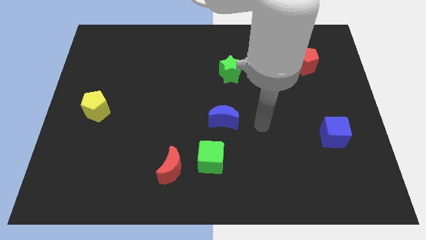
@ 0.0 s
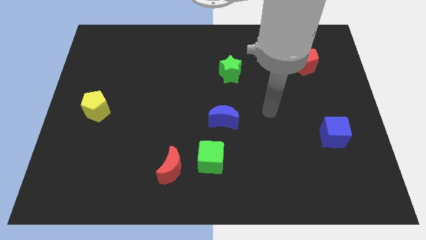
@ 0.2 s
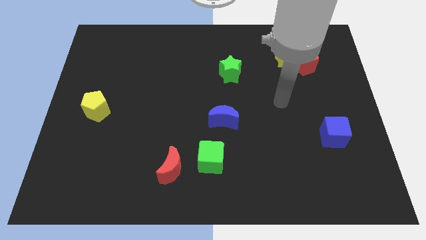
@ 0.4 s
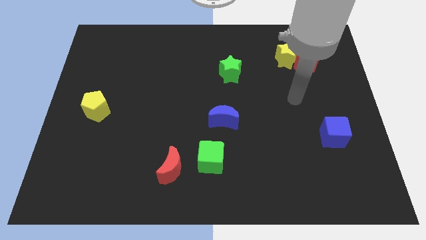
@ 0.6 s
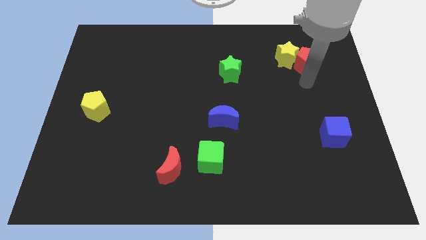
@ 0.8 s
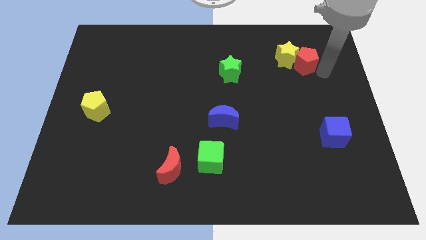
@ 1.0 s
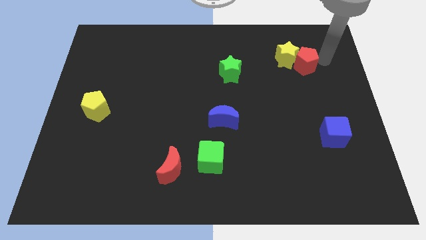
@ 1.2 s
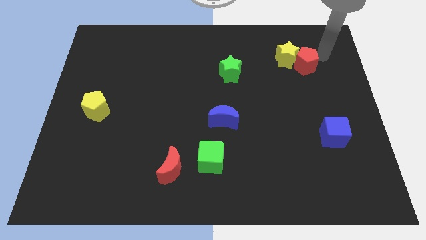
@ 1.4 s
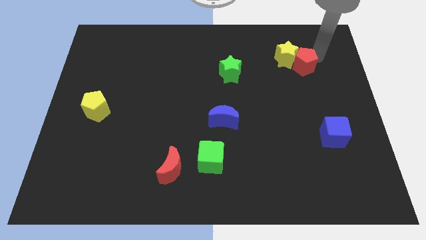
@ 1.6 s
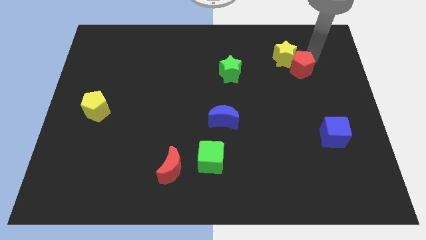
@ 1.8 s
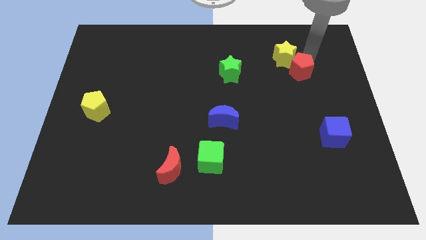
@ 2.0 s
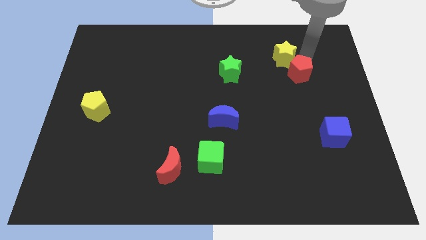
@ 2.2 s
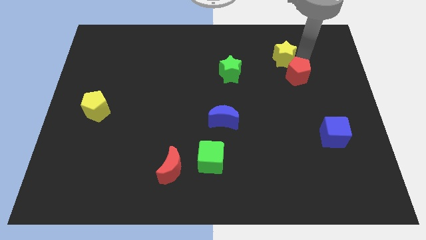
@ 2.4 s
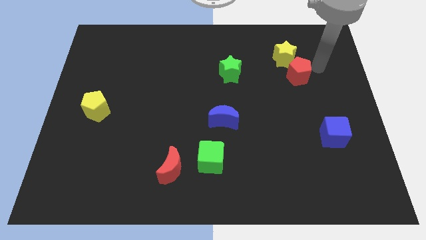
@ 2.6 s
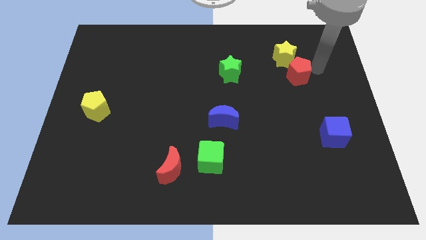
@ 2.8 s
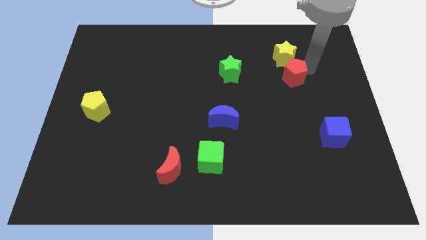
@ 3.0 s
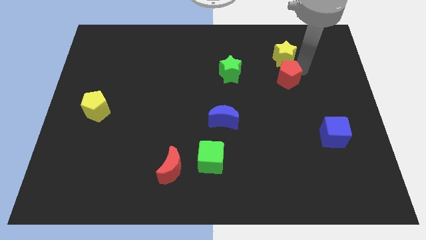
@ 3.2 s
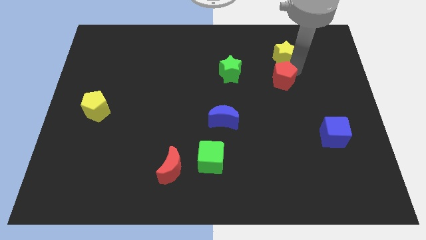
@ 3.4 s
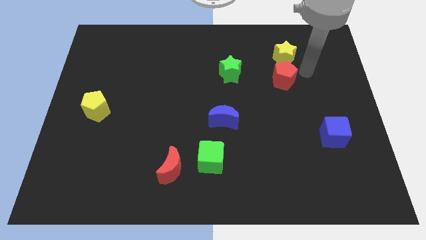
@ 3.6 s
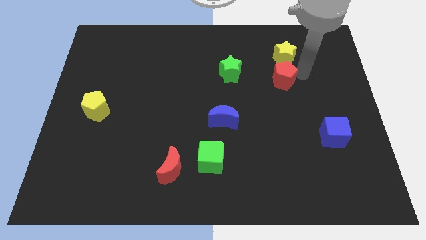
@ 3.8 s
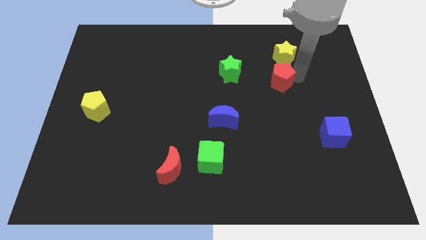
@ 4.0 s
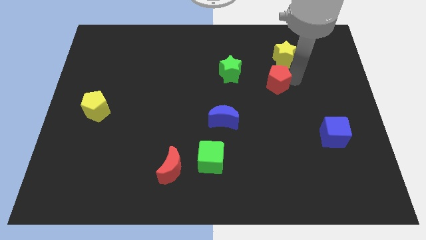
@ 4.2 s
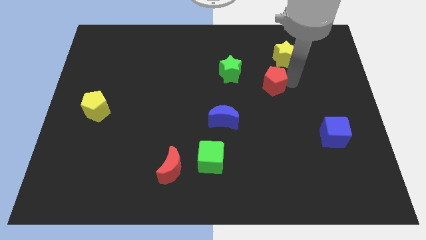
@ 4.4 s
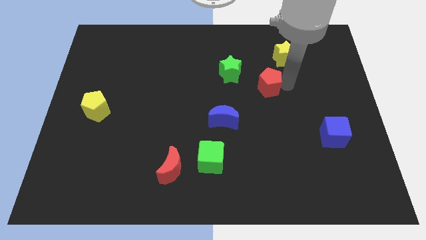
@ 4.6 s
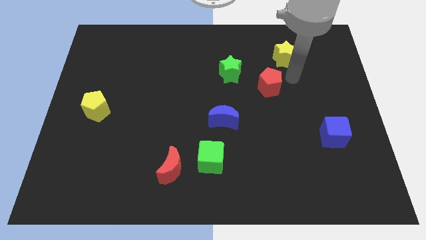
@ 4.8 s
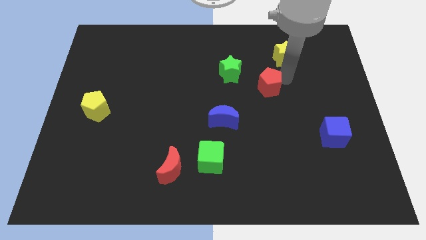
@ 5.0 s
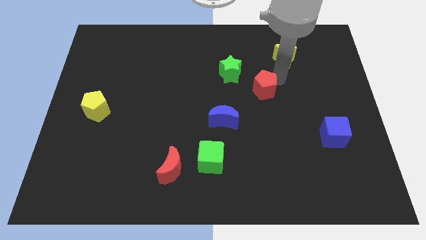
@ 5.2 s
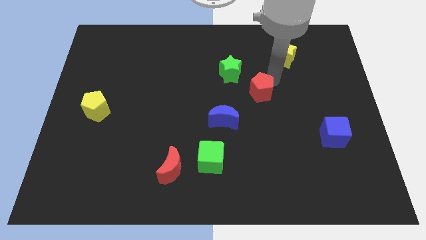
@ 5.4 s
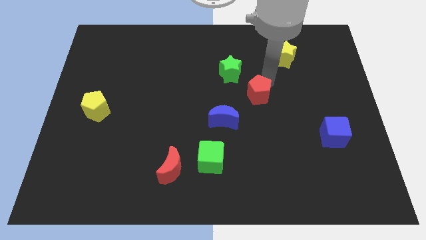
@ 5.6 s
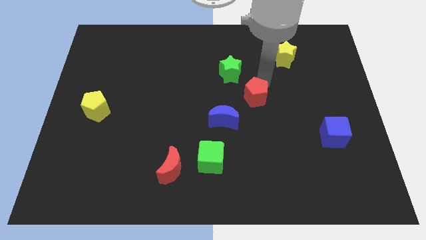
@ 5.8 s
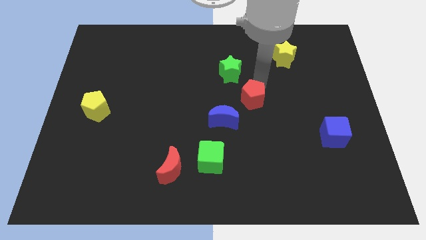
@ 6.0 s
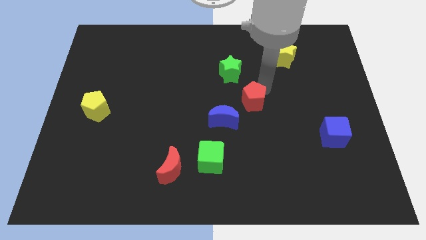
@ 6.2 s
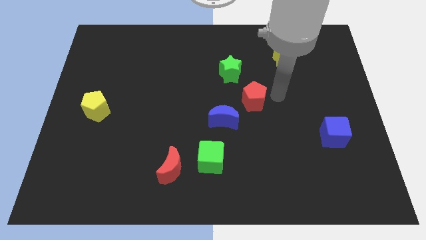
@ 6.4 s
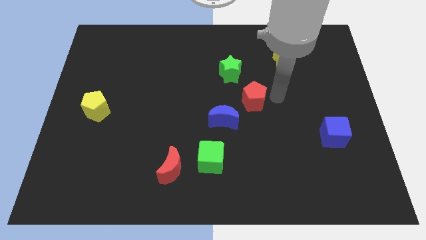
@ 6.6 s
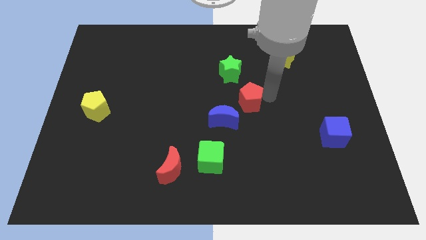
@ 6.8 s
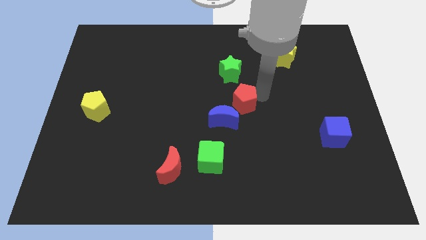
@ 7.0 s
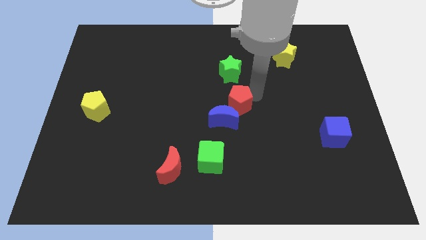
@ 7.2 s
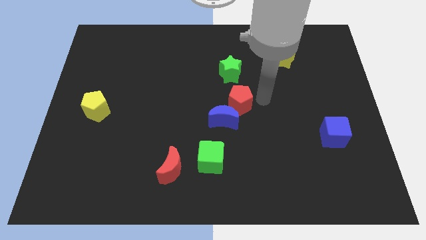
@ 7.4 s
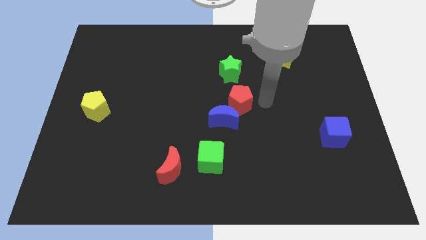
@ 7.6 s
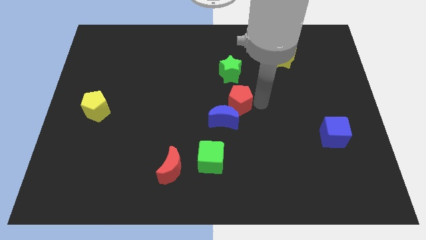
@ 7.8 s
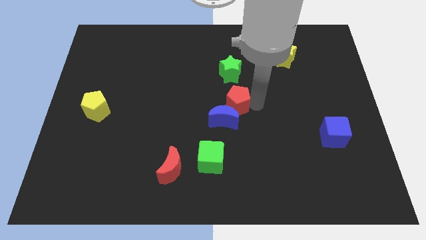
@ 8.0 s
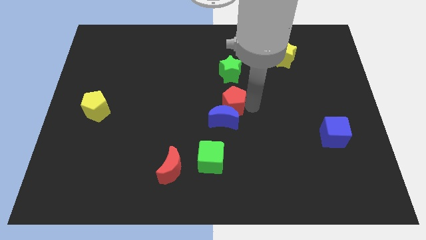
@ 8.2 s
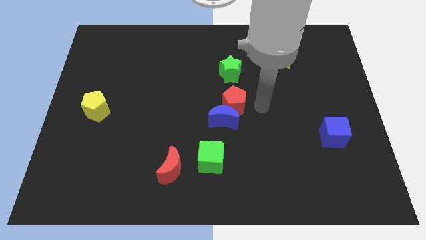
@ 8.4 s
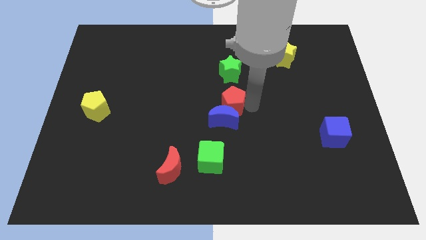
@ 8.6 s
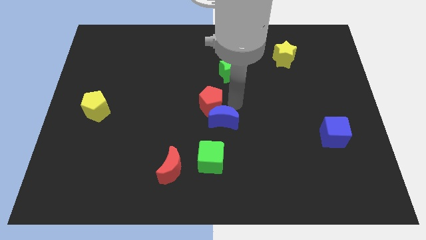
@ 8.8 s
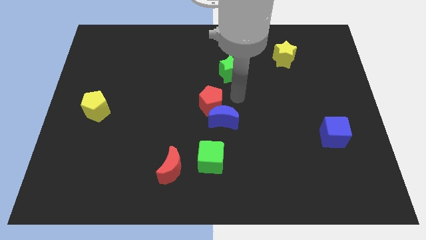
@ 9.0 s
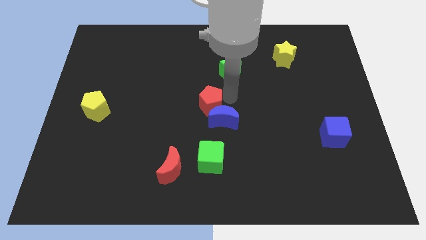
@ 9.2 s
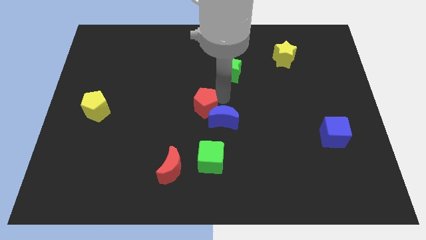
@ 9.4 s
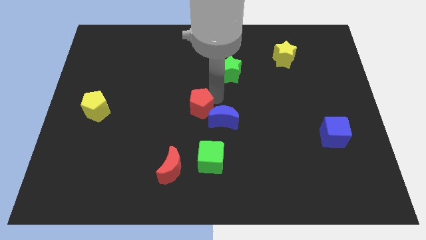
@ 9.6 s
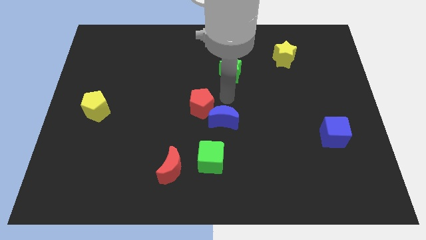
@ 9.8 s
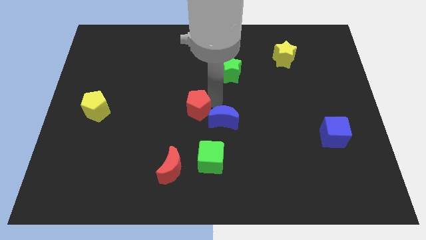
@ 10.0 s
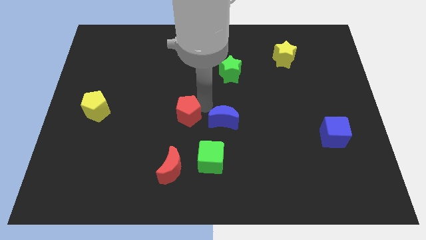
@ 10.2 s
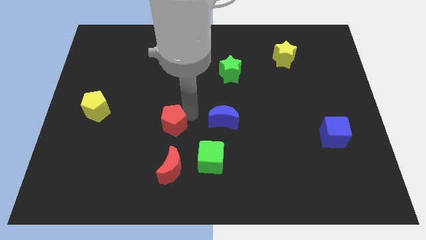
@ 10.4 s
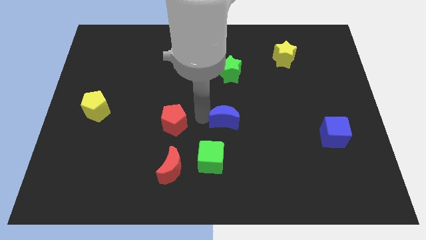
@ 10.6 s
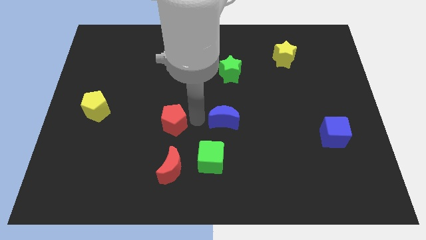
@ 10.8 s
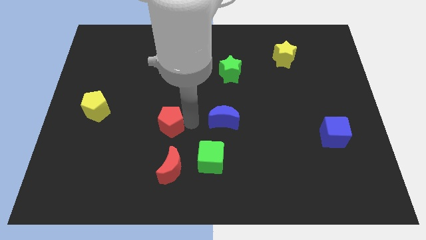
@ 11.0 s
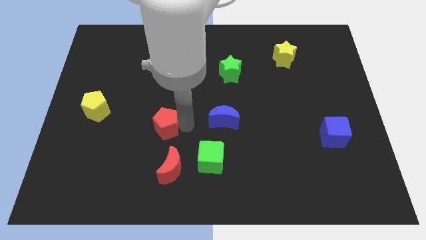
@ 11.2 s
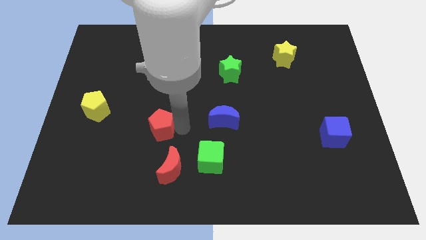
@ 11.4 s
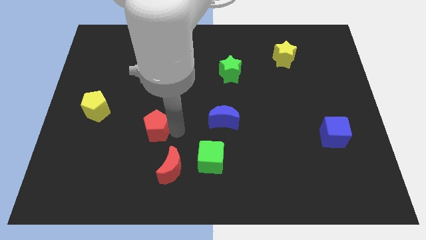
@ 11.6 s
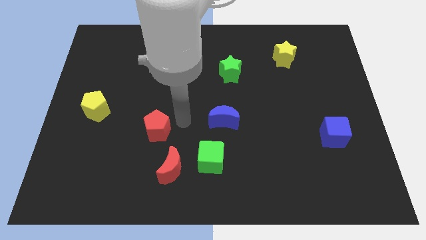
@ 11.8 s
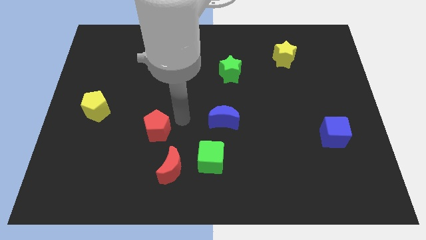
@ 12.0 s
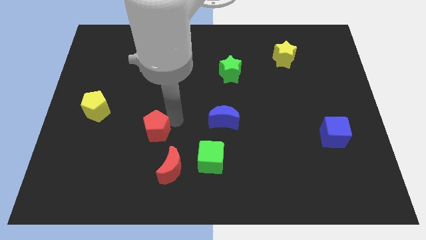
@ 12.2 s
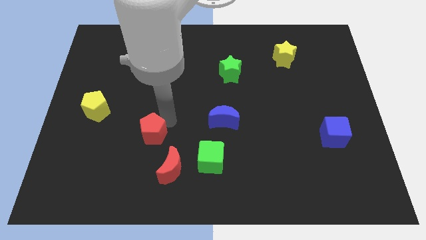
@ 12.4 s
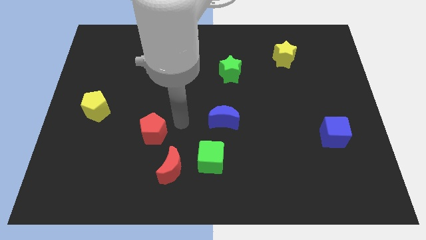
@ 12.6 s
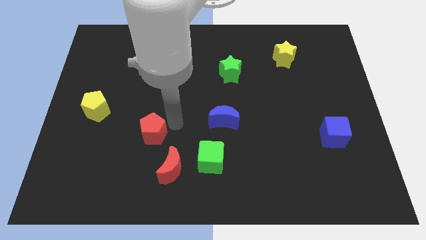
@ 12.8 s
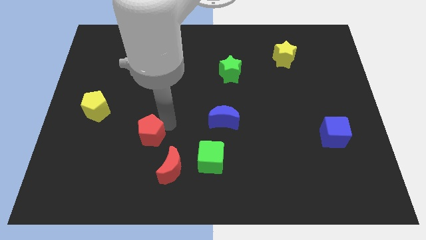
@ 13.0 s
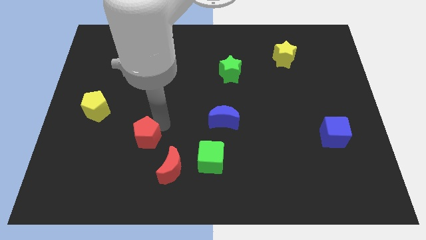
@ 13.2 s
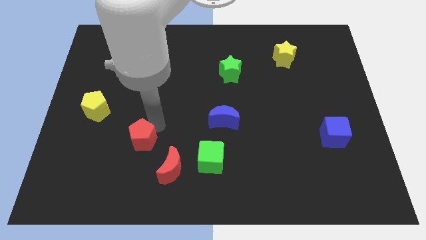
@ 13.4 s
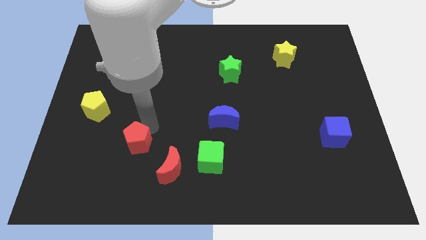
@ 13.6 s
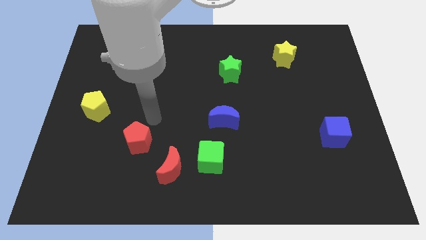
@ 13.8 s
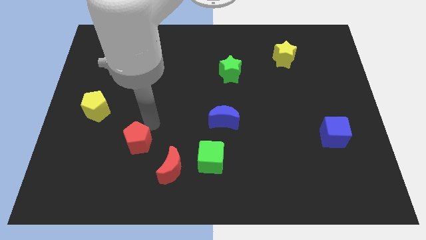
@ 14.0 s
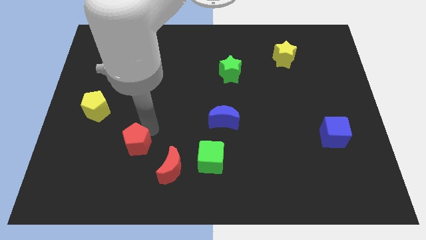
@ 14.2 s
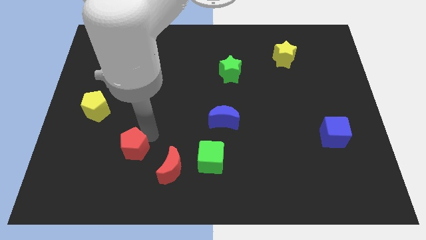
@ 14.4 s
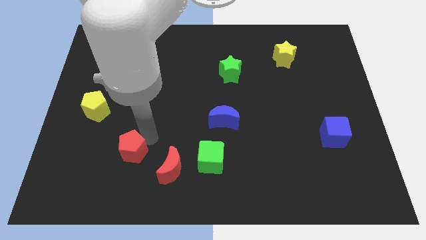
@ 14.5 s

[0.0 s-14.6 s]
push the red pentagon left of the red moon
